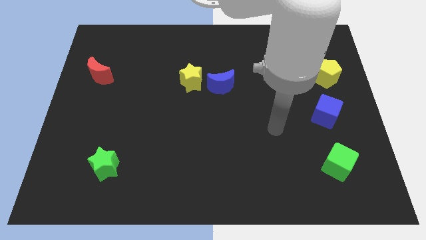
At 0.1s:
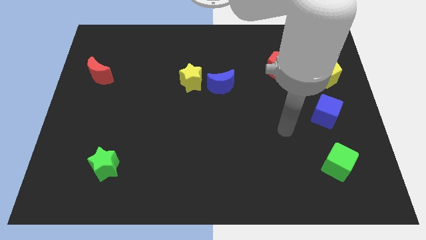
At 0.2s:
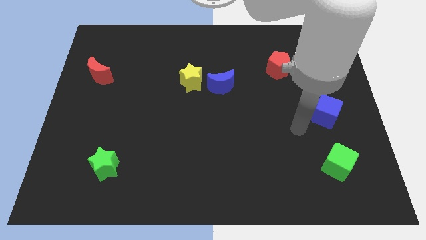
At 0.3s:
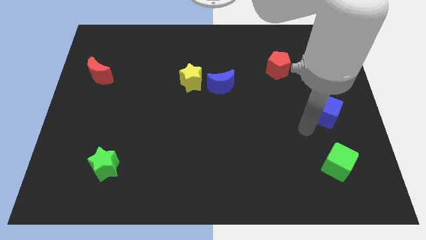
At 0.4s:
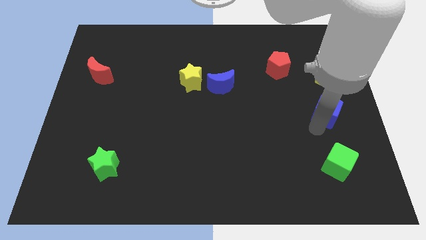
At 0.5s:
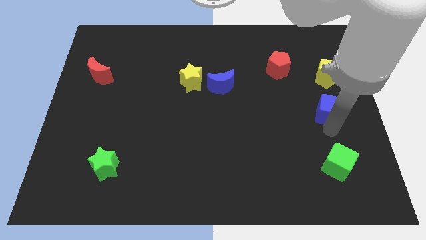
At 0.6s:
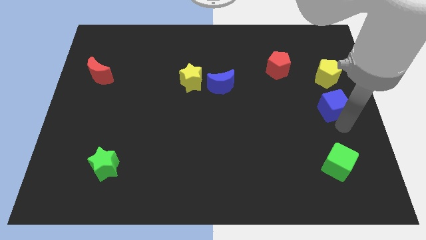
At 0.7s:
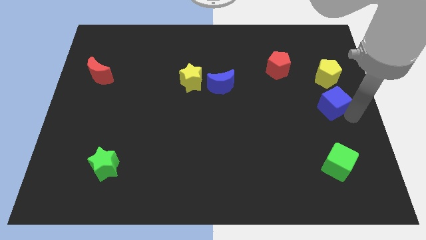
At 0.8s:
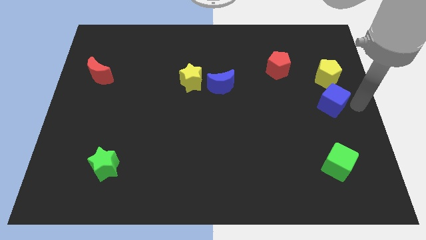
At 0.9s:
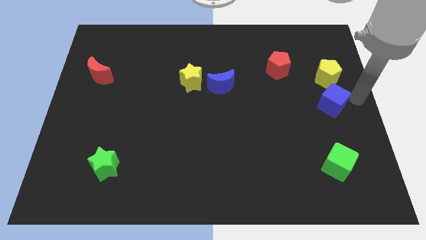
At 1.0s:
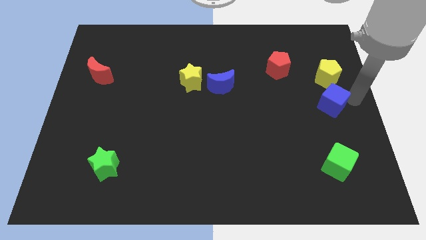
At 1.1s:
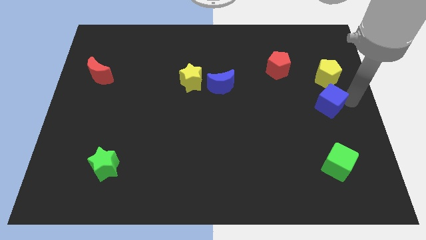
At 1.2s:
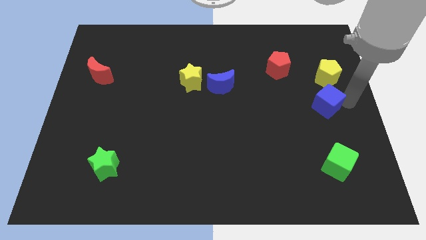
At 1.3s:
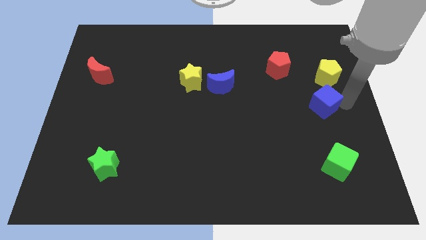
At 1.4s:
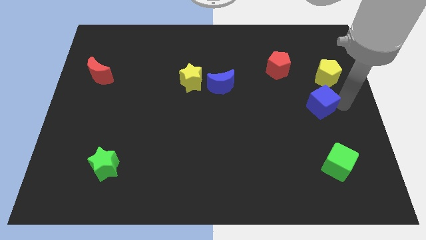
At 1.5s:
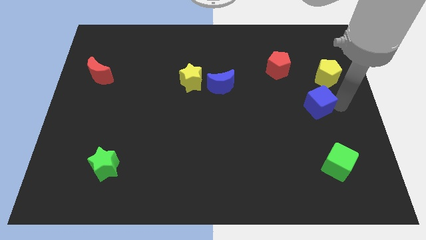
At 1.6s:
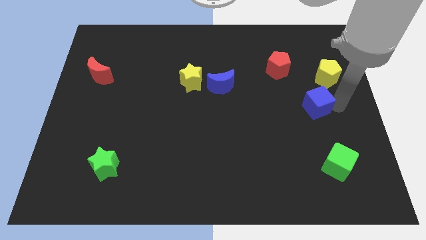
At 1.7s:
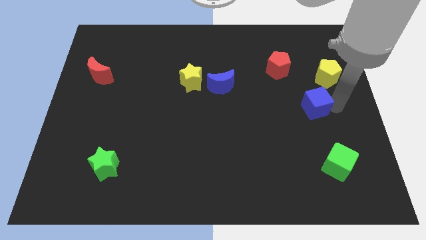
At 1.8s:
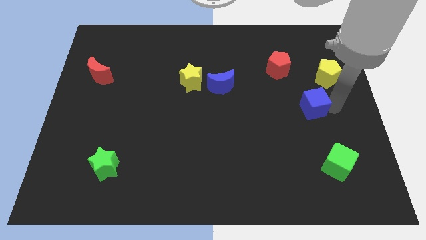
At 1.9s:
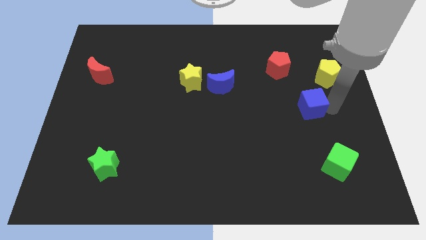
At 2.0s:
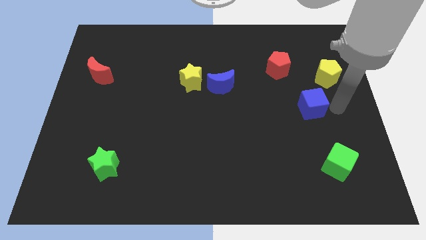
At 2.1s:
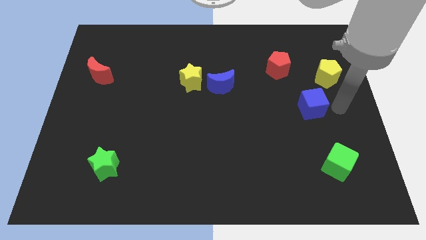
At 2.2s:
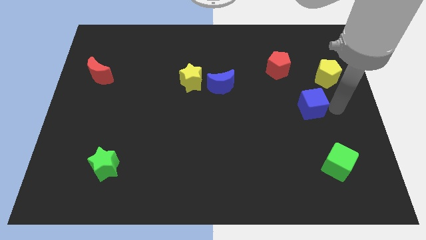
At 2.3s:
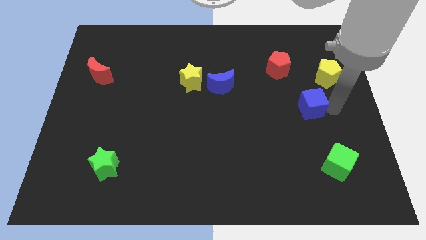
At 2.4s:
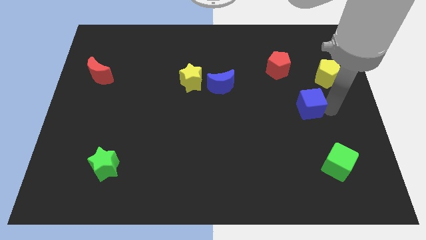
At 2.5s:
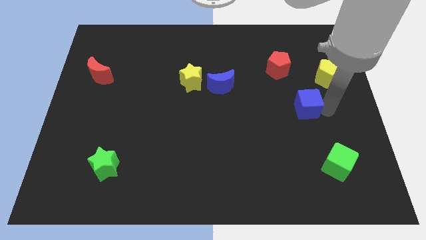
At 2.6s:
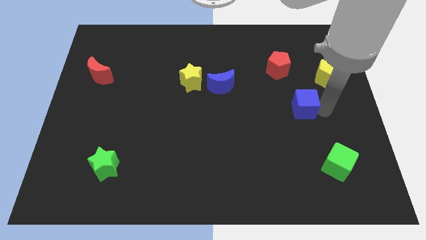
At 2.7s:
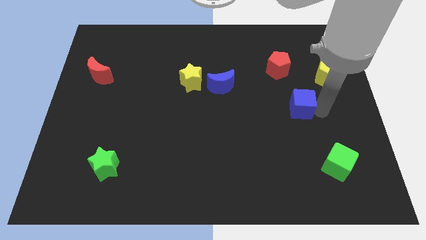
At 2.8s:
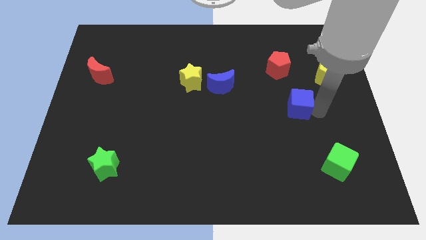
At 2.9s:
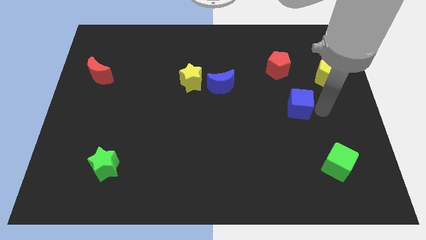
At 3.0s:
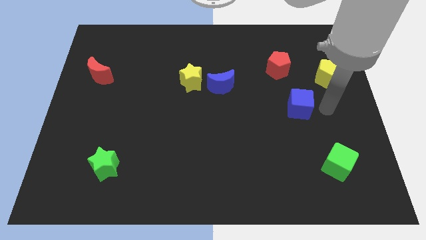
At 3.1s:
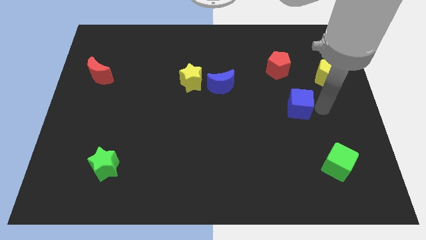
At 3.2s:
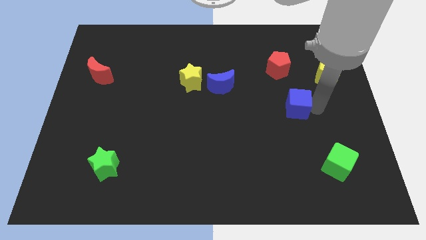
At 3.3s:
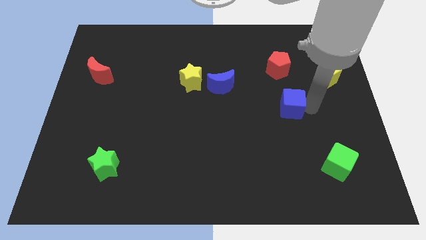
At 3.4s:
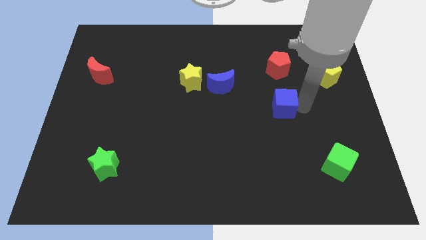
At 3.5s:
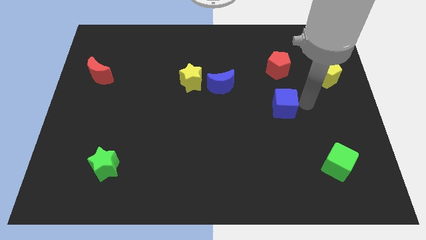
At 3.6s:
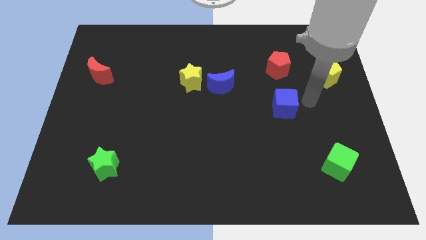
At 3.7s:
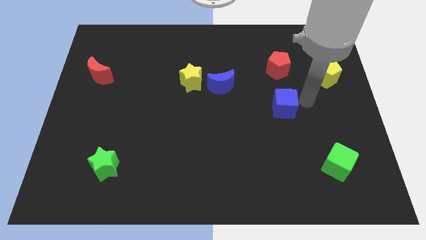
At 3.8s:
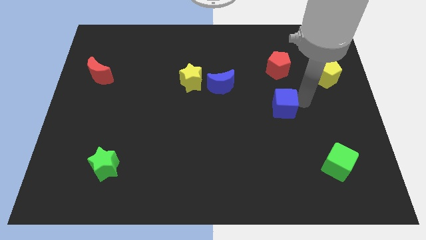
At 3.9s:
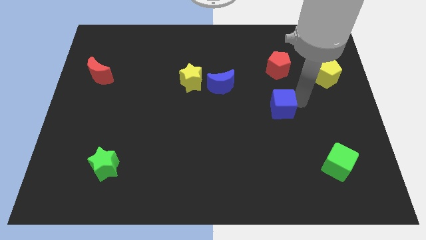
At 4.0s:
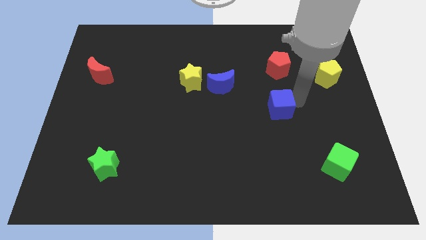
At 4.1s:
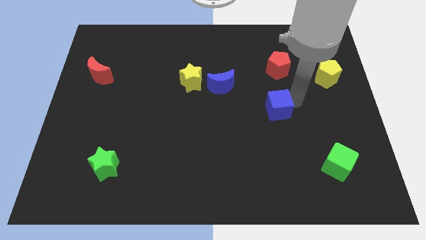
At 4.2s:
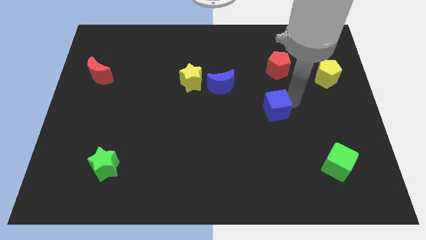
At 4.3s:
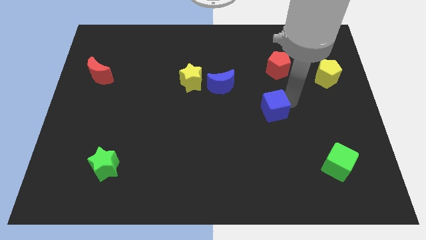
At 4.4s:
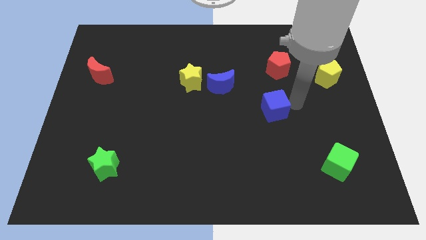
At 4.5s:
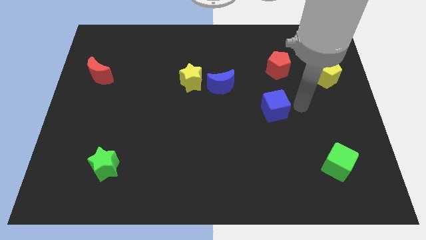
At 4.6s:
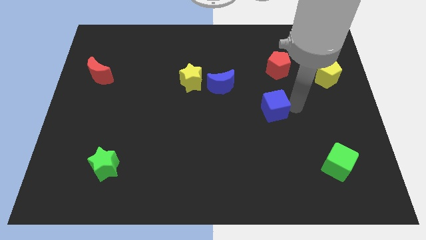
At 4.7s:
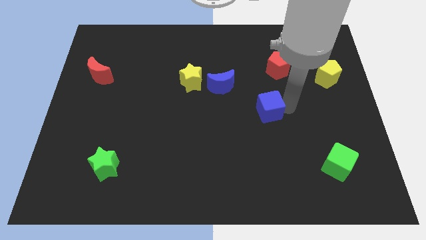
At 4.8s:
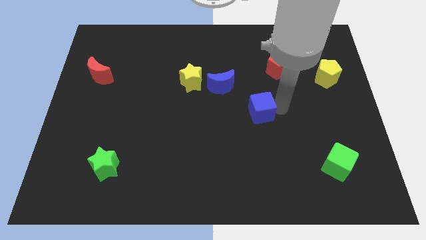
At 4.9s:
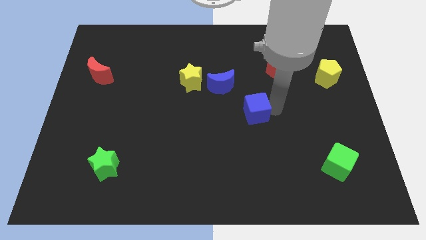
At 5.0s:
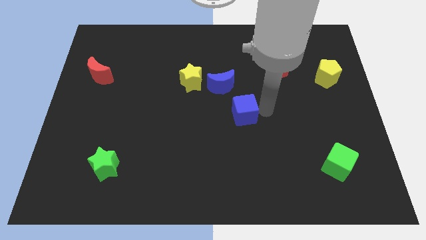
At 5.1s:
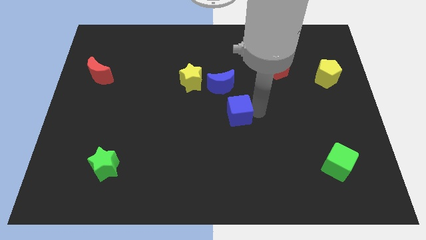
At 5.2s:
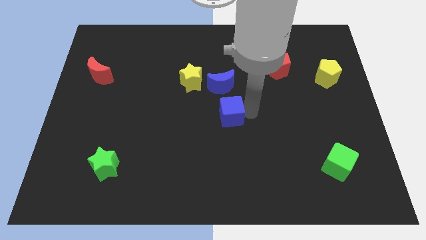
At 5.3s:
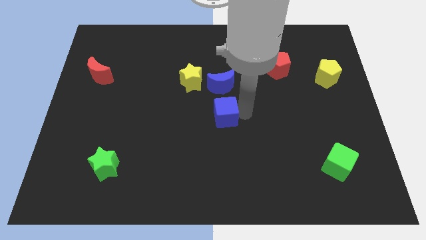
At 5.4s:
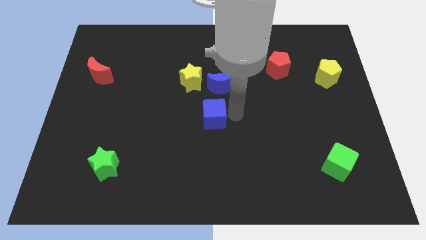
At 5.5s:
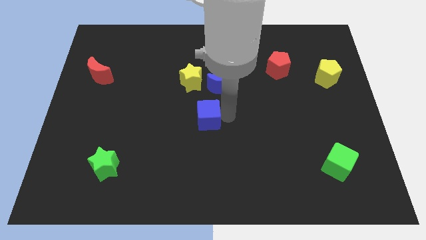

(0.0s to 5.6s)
slide the blue cube below the yellow star

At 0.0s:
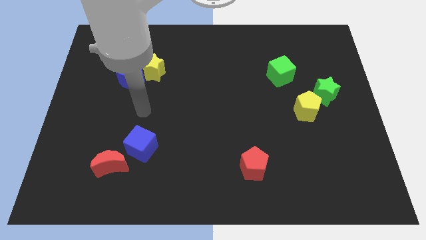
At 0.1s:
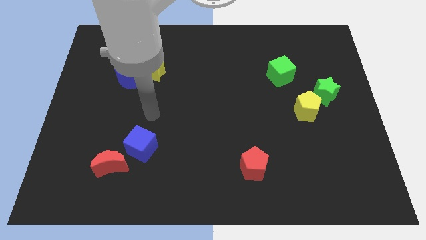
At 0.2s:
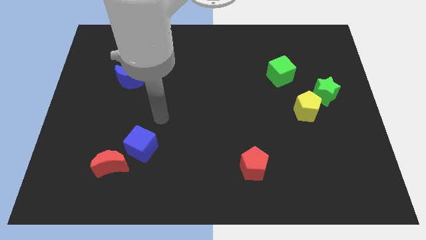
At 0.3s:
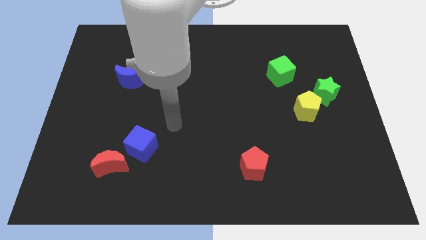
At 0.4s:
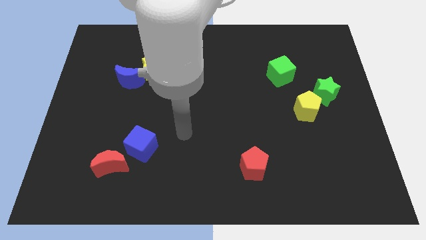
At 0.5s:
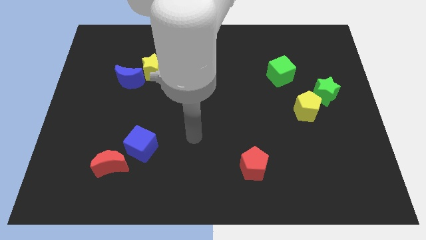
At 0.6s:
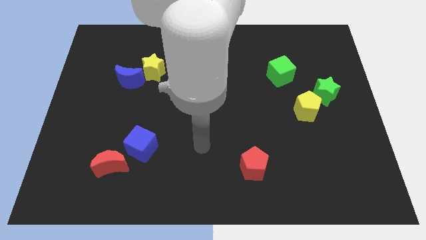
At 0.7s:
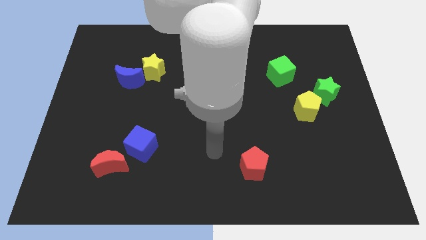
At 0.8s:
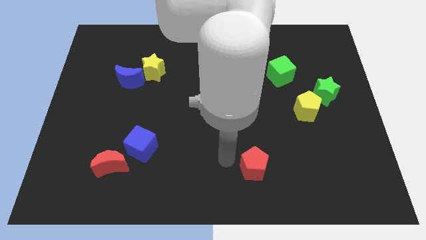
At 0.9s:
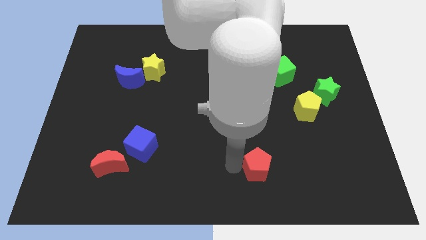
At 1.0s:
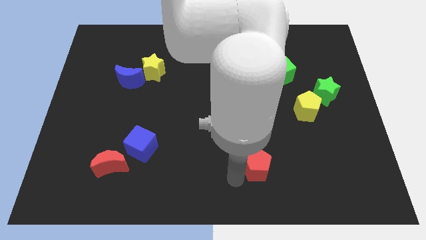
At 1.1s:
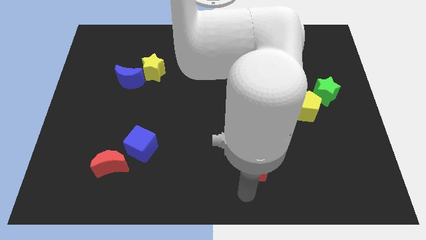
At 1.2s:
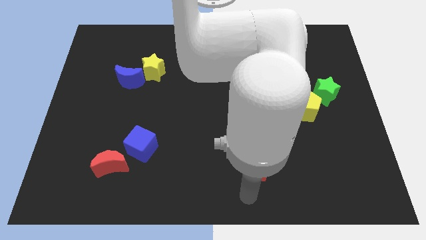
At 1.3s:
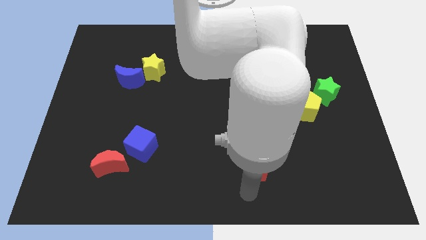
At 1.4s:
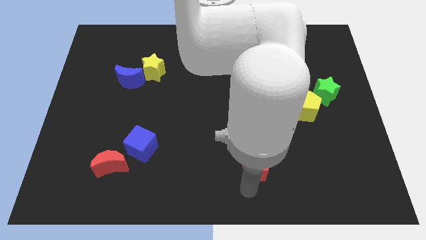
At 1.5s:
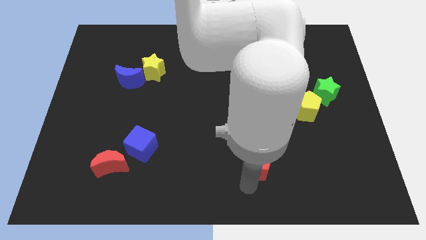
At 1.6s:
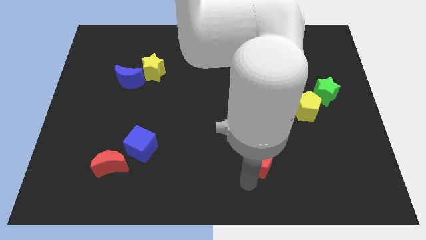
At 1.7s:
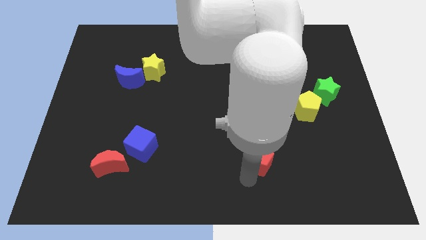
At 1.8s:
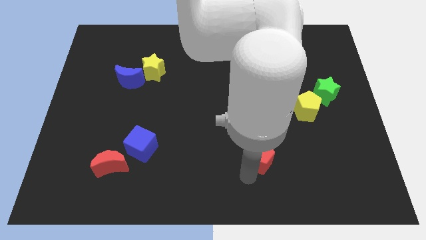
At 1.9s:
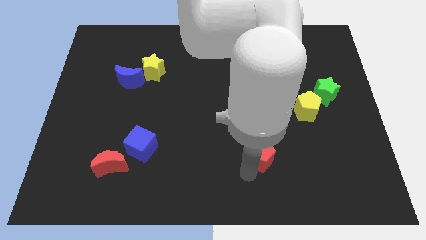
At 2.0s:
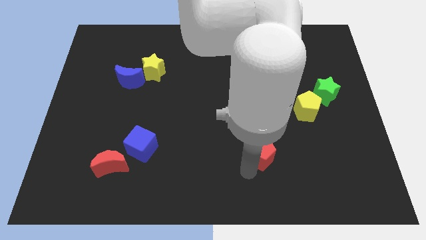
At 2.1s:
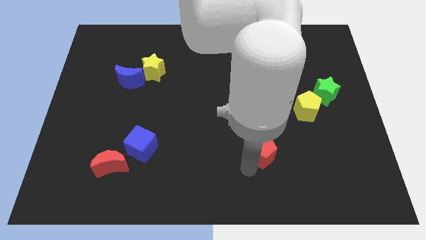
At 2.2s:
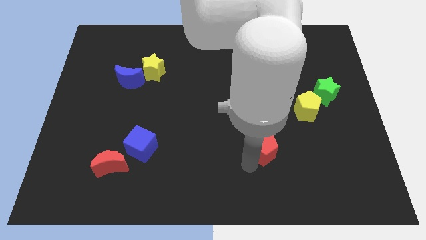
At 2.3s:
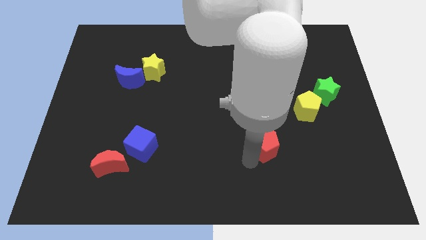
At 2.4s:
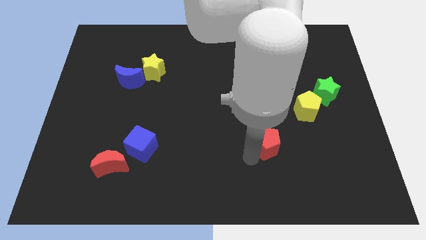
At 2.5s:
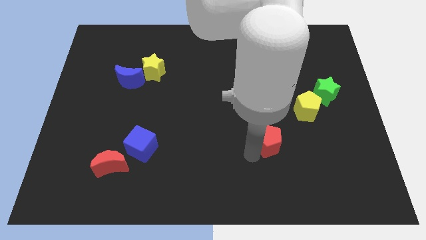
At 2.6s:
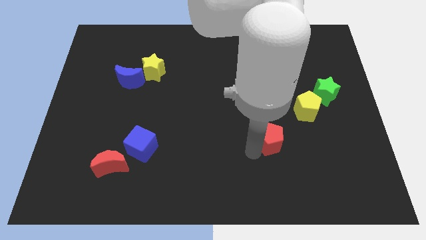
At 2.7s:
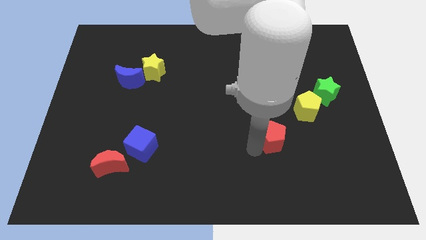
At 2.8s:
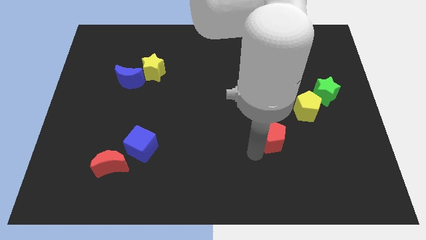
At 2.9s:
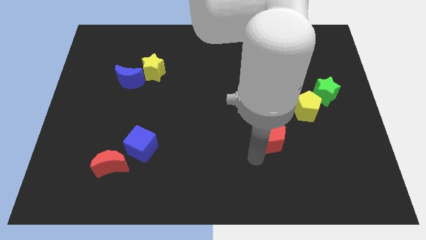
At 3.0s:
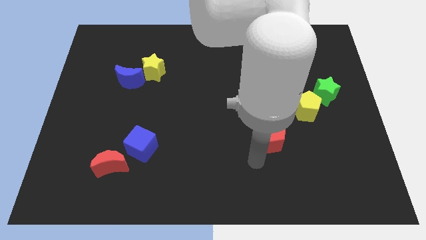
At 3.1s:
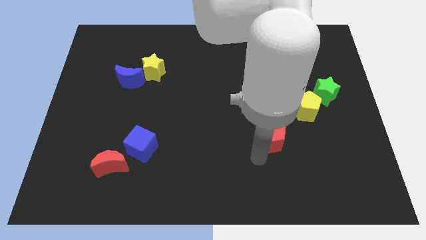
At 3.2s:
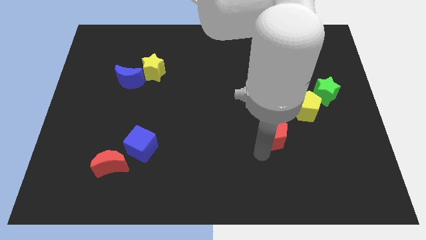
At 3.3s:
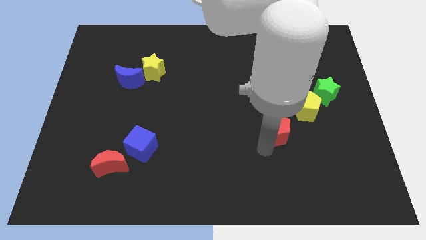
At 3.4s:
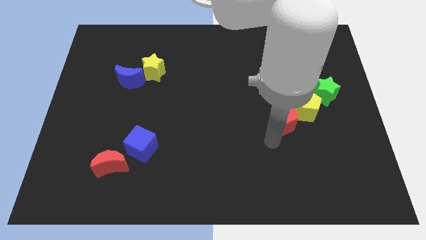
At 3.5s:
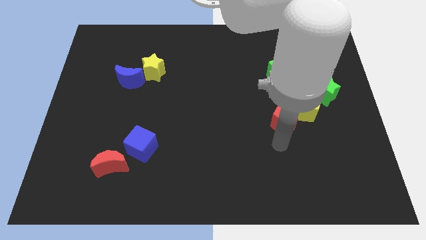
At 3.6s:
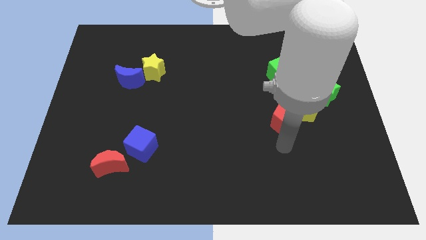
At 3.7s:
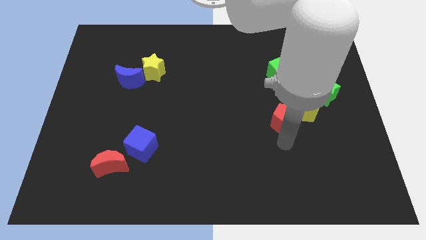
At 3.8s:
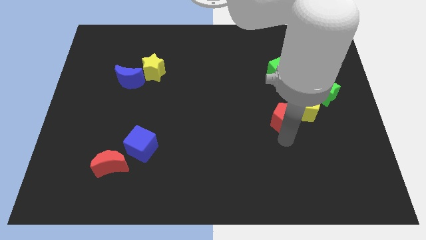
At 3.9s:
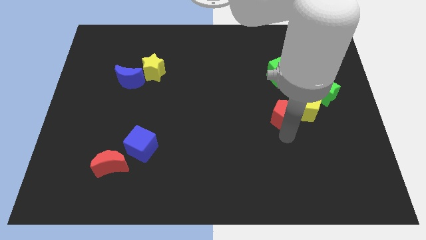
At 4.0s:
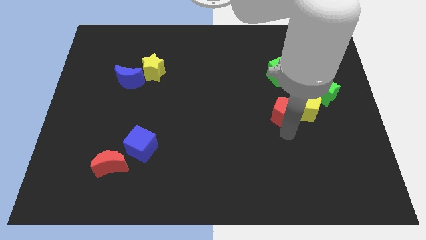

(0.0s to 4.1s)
move the red pentagon diagonally up and to the left of the yellow pentagon
